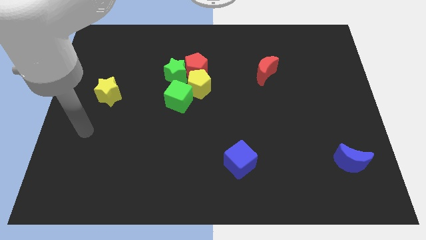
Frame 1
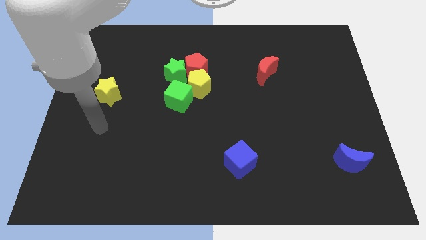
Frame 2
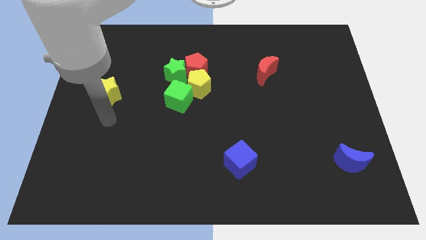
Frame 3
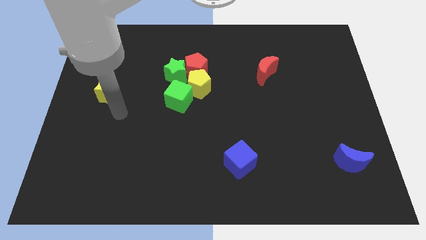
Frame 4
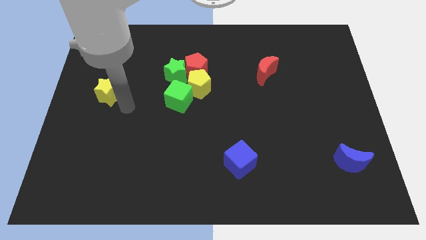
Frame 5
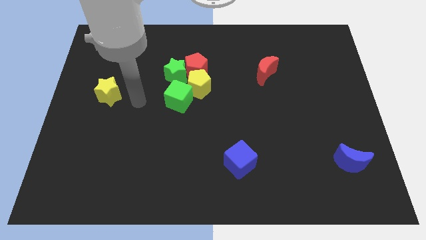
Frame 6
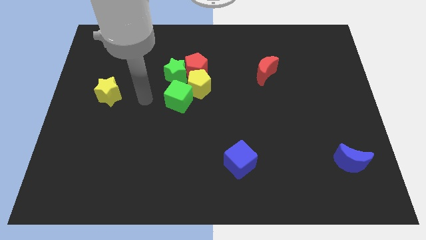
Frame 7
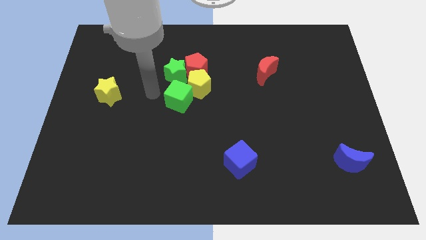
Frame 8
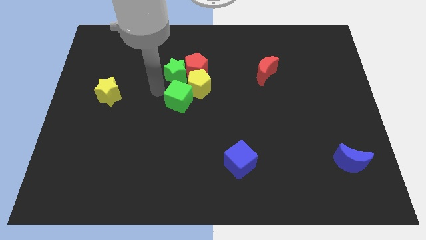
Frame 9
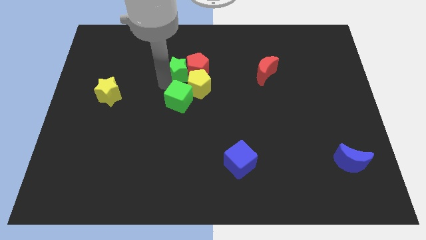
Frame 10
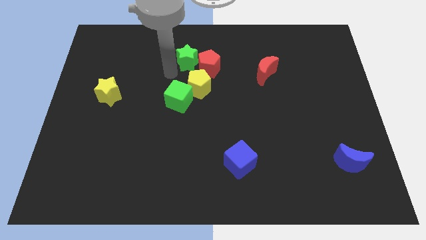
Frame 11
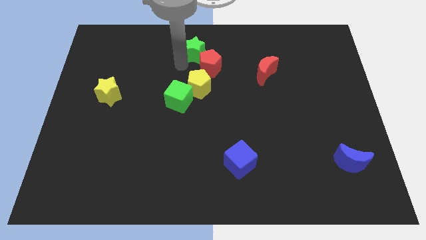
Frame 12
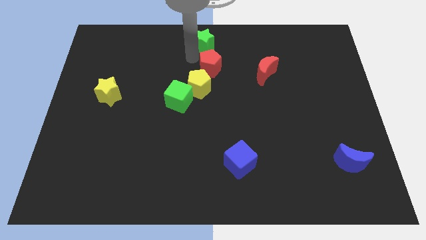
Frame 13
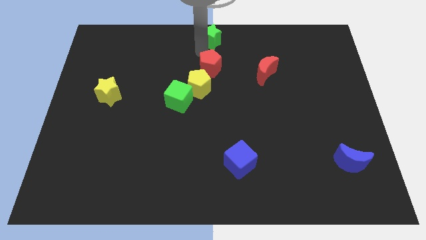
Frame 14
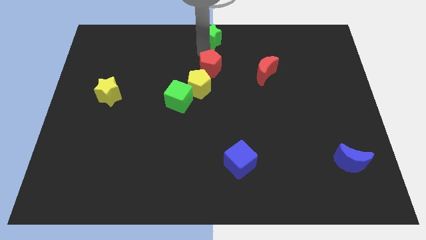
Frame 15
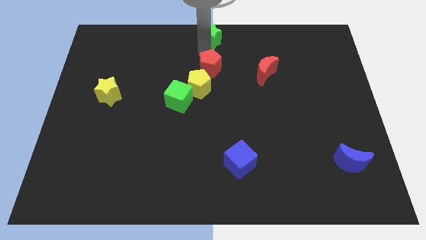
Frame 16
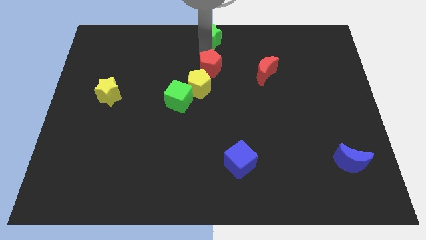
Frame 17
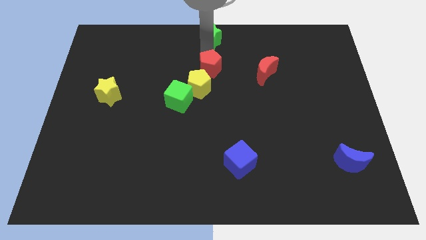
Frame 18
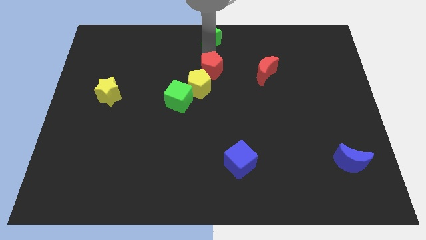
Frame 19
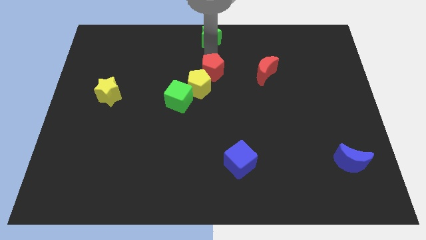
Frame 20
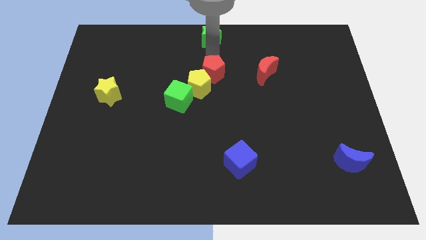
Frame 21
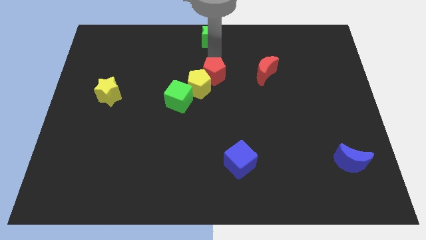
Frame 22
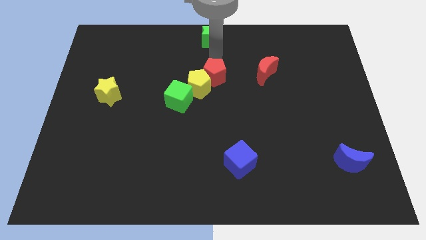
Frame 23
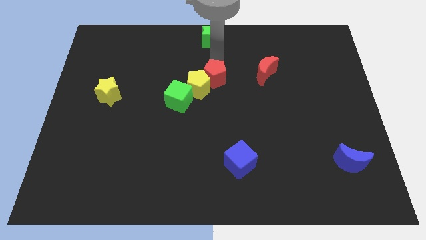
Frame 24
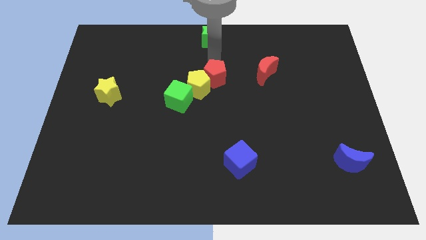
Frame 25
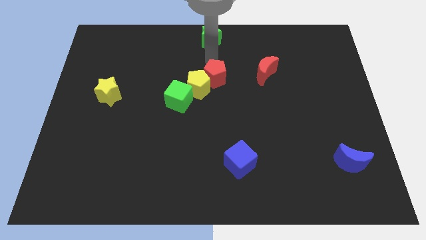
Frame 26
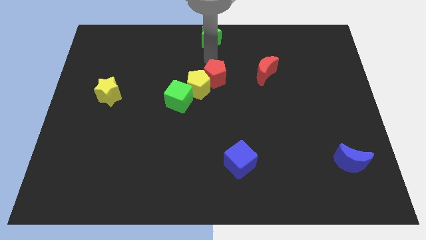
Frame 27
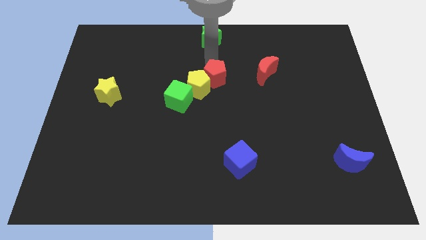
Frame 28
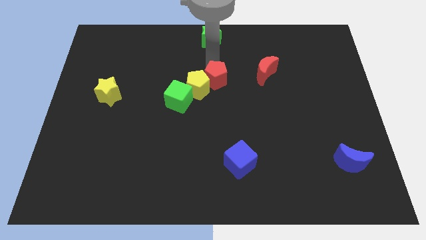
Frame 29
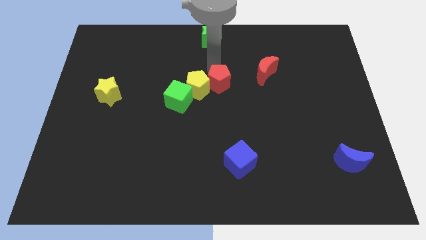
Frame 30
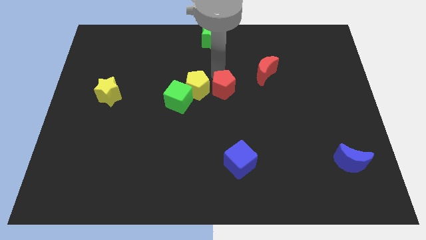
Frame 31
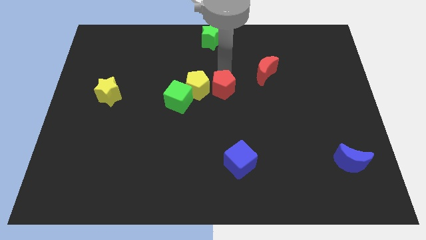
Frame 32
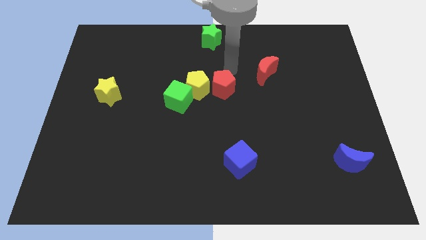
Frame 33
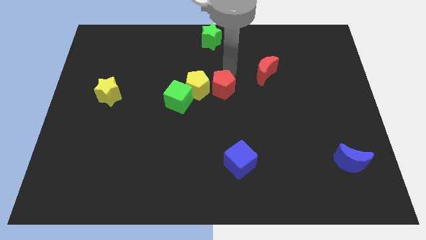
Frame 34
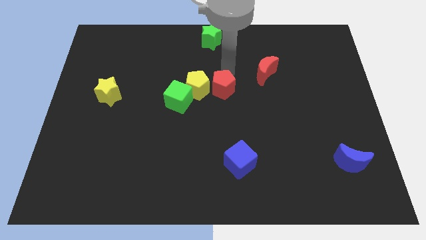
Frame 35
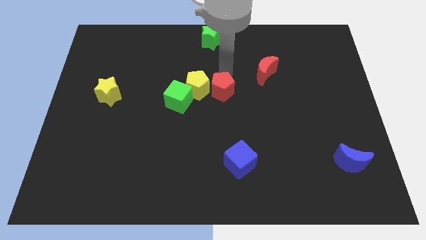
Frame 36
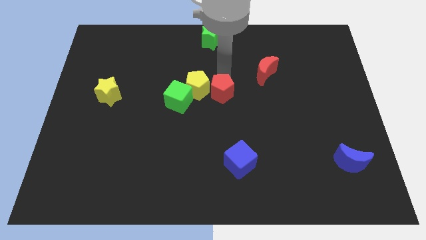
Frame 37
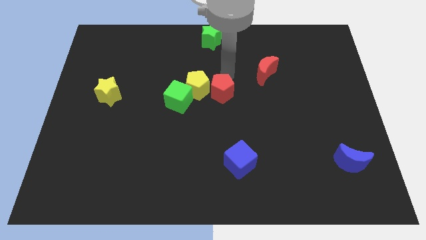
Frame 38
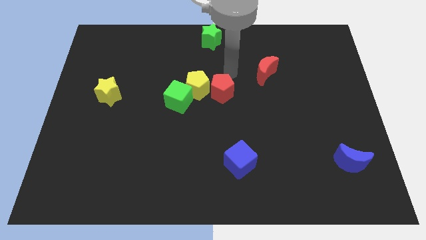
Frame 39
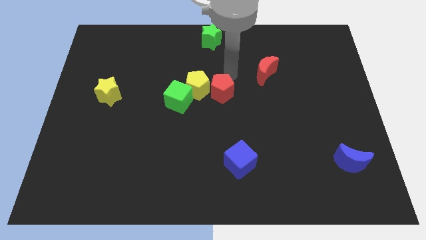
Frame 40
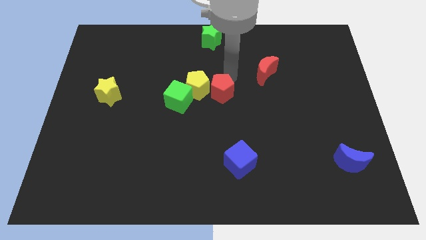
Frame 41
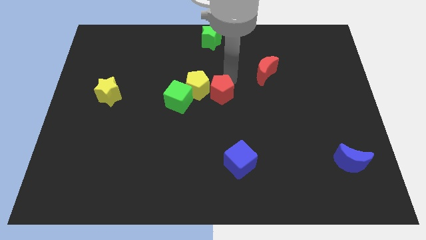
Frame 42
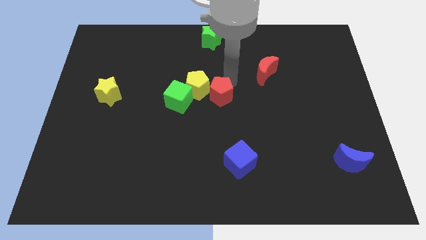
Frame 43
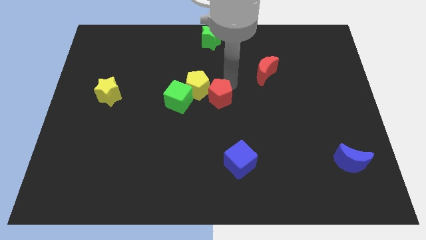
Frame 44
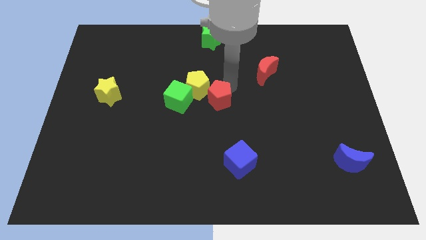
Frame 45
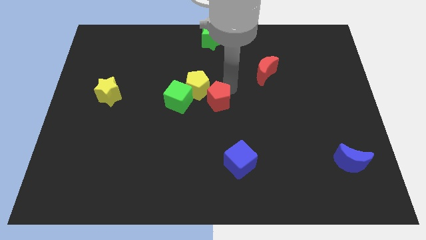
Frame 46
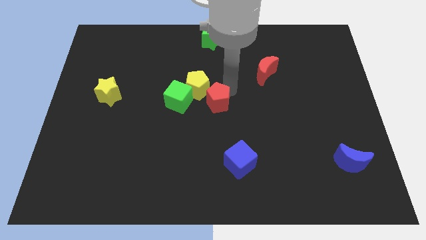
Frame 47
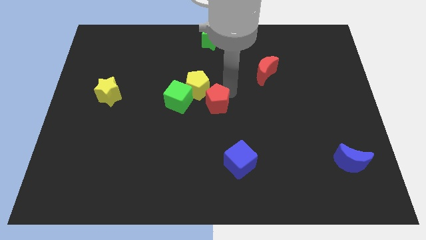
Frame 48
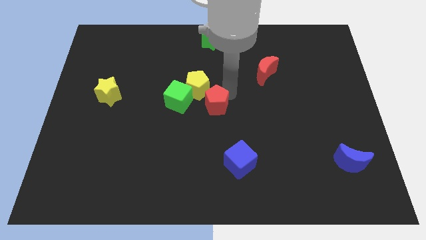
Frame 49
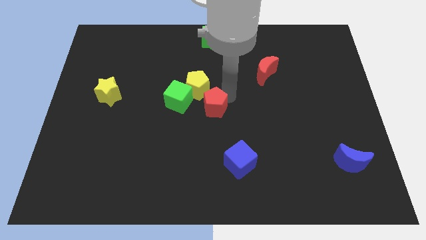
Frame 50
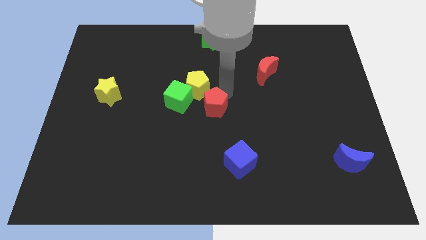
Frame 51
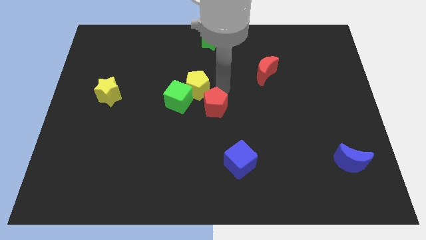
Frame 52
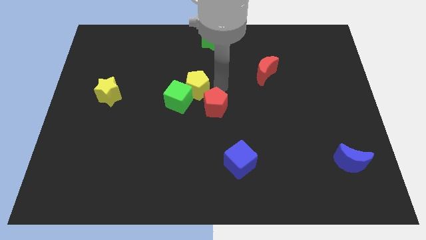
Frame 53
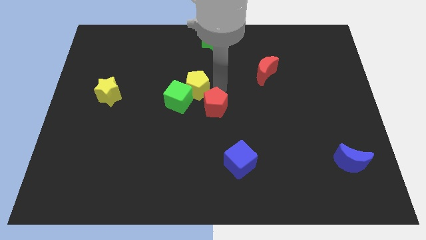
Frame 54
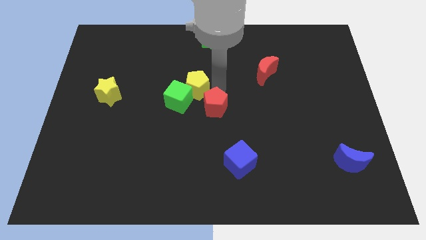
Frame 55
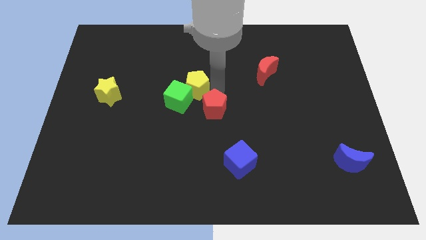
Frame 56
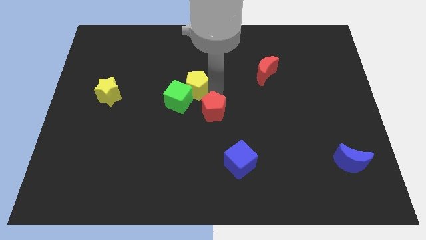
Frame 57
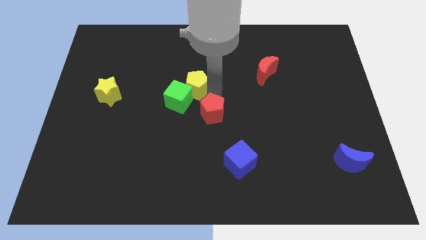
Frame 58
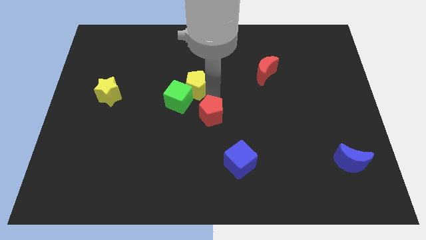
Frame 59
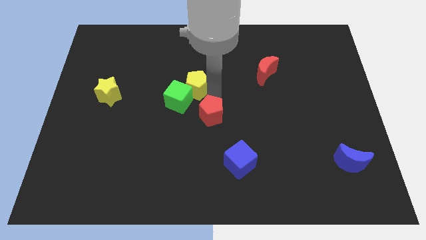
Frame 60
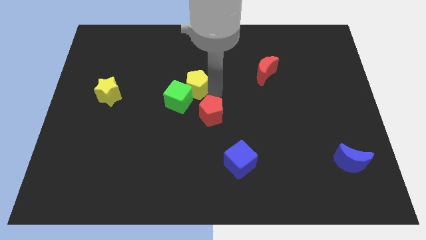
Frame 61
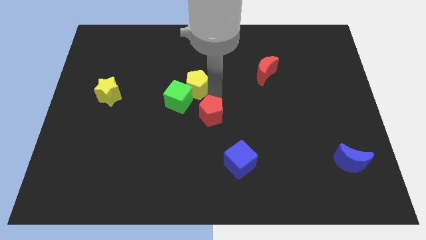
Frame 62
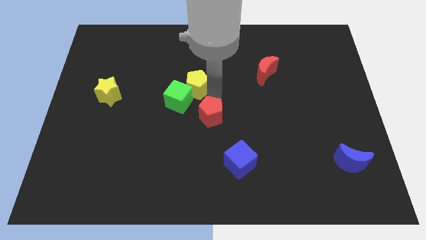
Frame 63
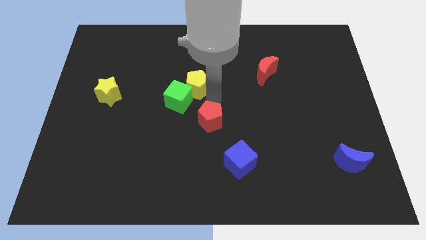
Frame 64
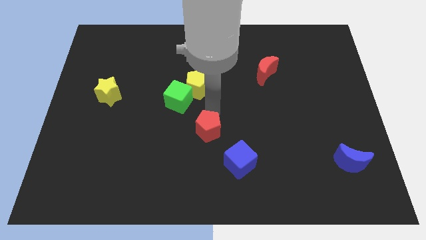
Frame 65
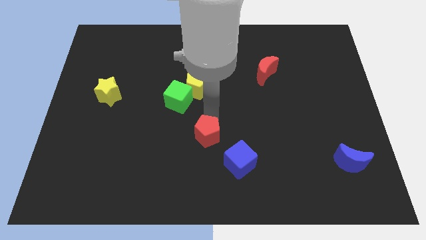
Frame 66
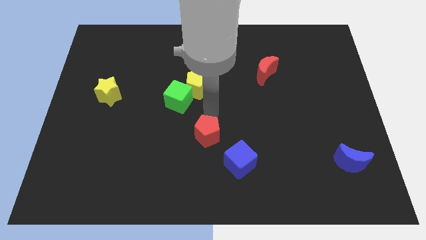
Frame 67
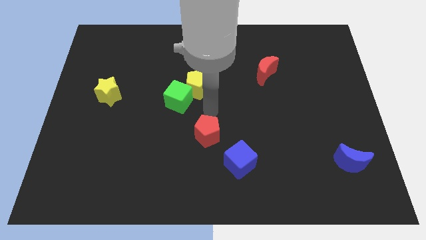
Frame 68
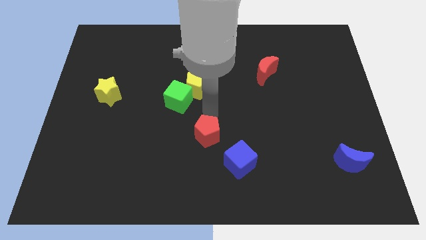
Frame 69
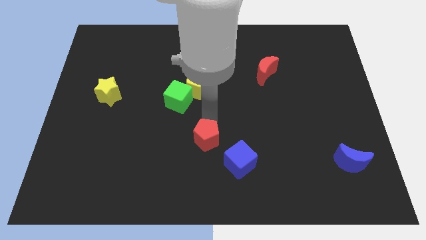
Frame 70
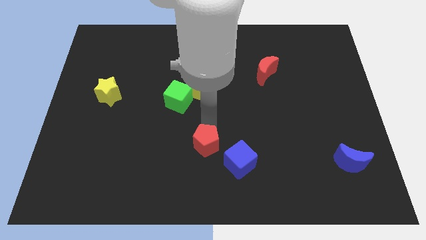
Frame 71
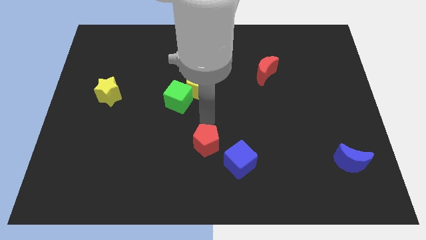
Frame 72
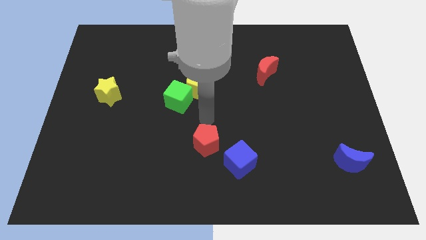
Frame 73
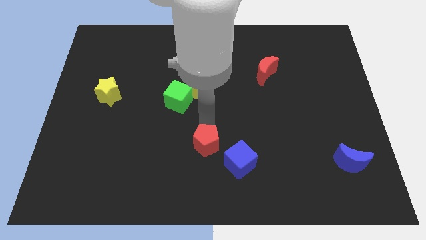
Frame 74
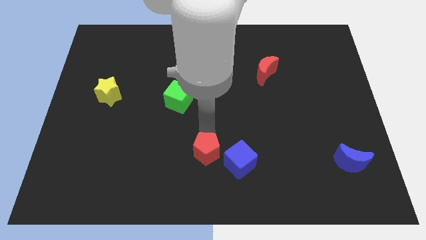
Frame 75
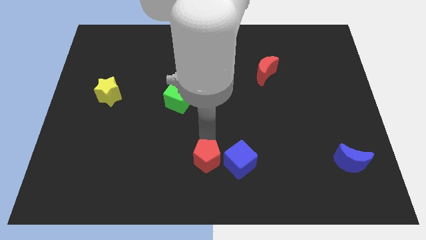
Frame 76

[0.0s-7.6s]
slide the red pentagon to the bottom
